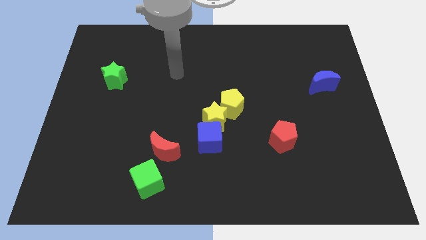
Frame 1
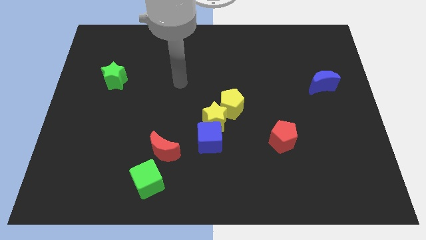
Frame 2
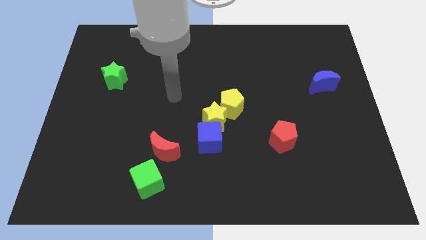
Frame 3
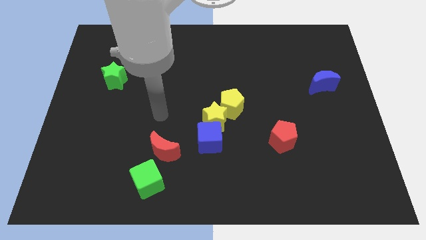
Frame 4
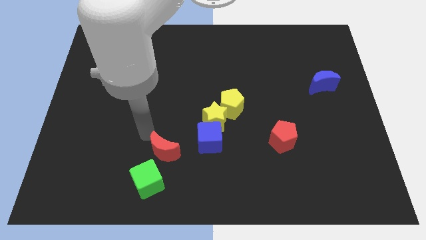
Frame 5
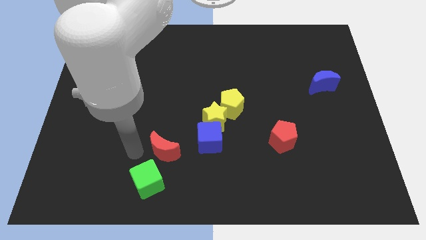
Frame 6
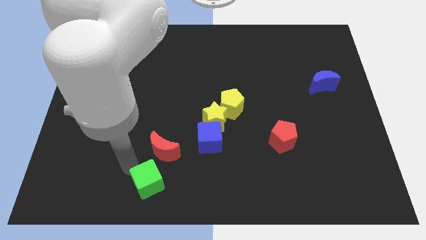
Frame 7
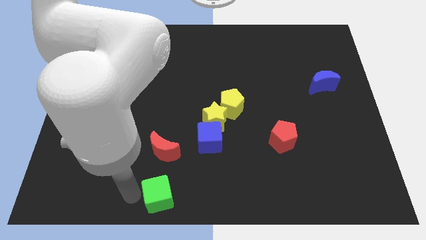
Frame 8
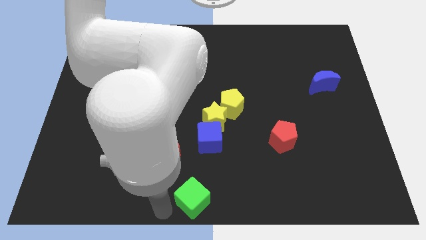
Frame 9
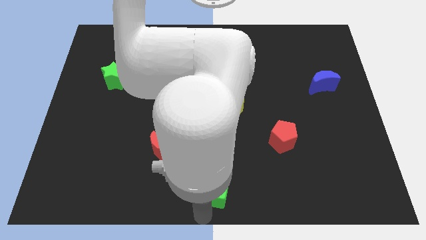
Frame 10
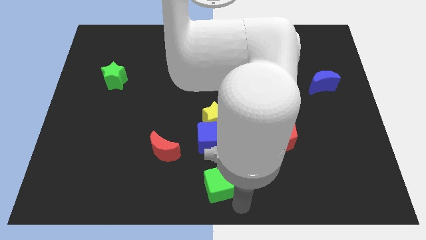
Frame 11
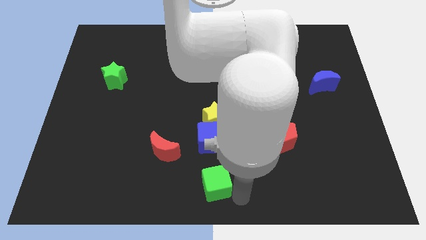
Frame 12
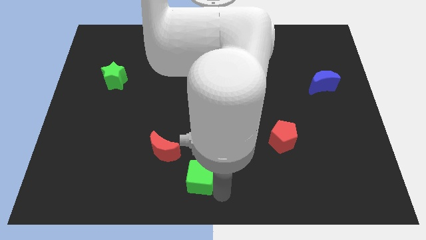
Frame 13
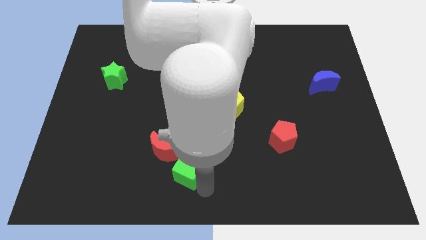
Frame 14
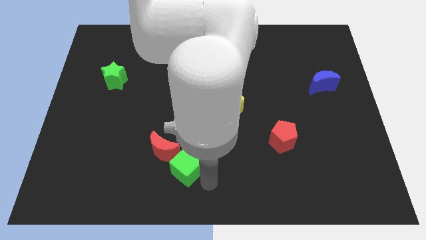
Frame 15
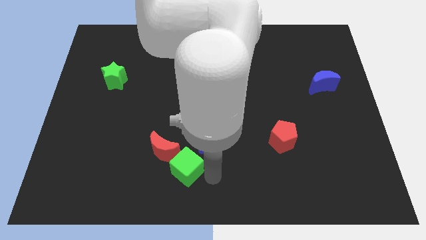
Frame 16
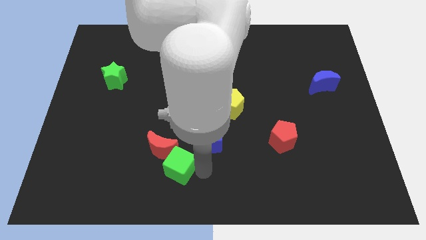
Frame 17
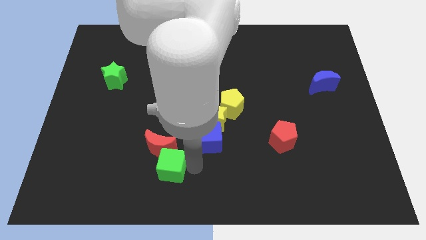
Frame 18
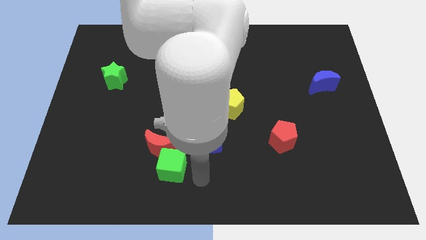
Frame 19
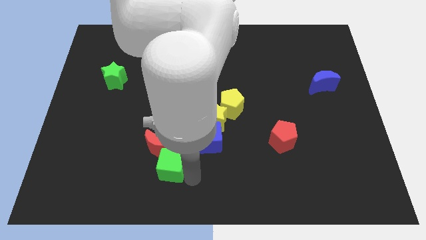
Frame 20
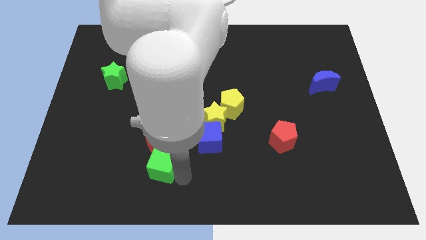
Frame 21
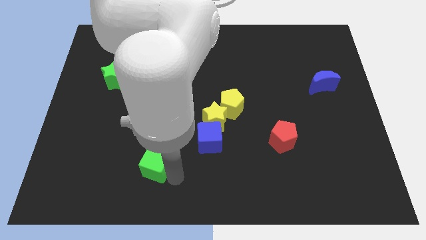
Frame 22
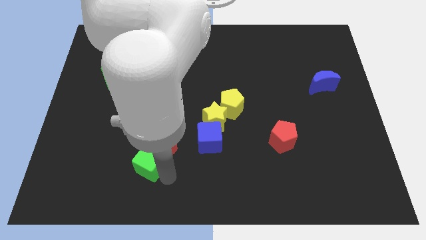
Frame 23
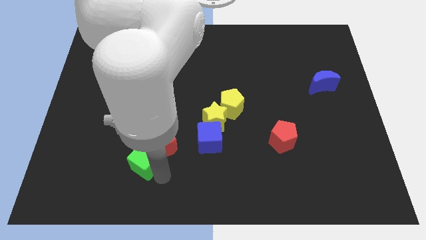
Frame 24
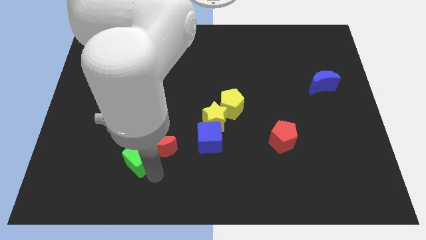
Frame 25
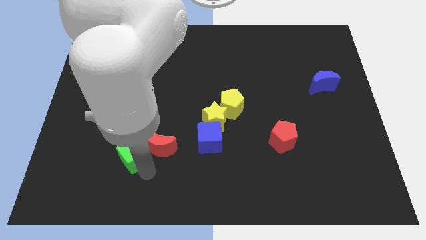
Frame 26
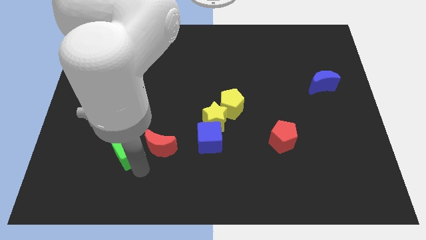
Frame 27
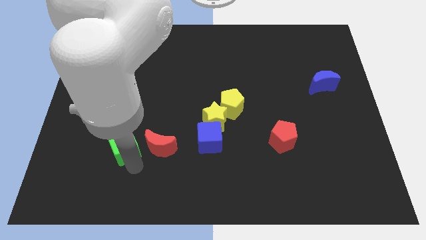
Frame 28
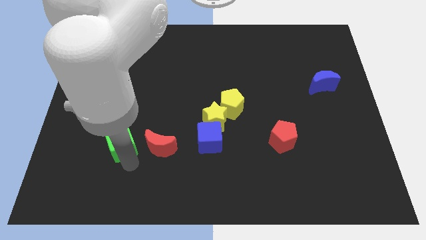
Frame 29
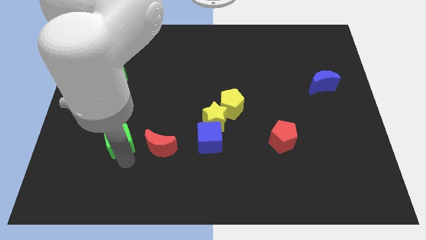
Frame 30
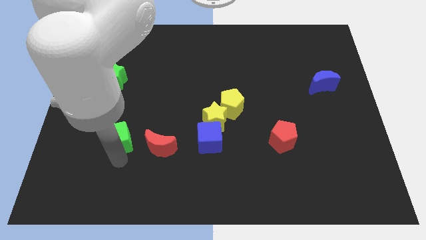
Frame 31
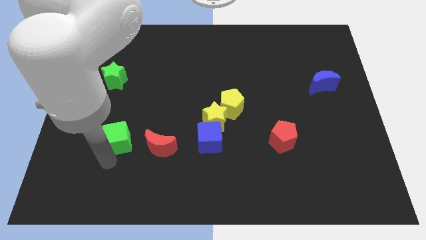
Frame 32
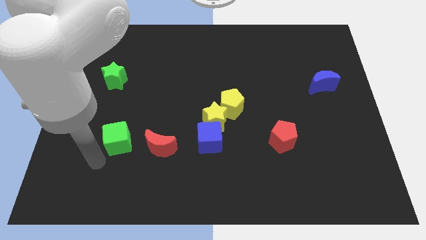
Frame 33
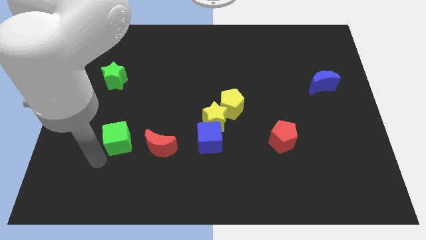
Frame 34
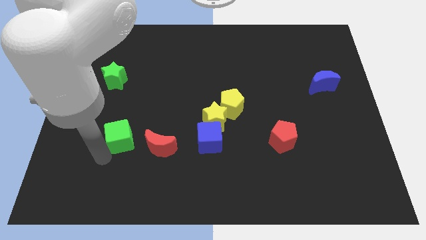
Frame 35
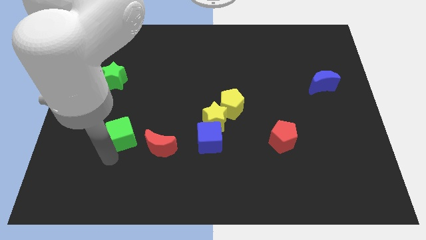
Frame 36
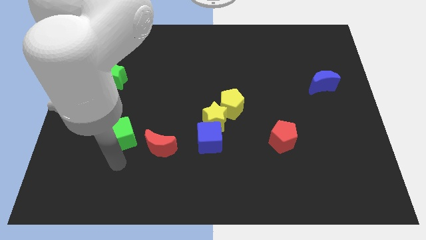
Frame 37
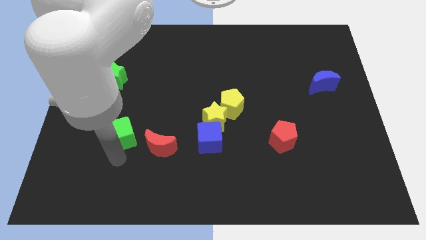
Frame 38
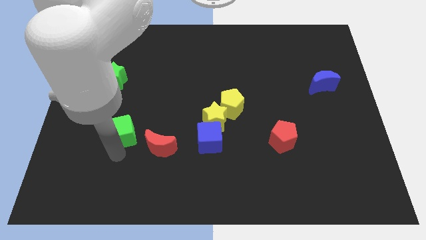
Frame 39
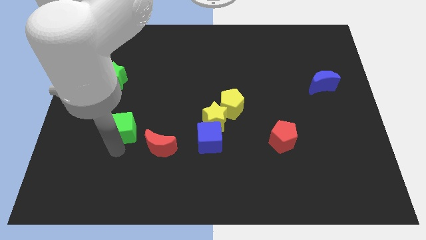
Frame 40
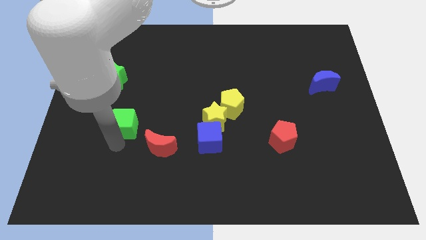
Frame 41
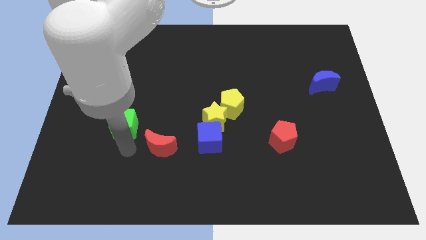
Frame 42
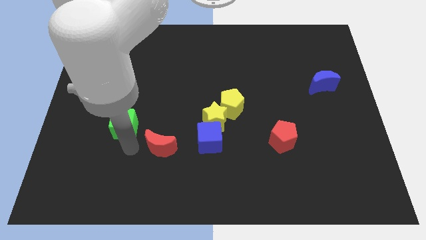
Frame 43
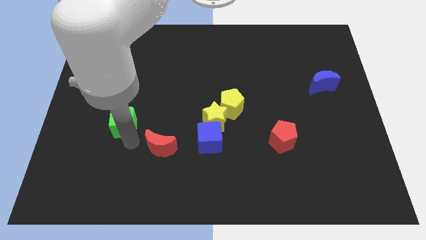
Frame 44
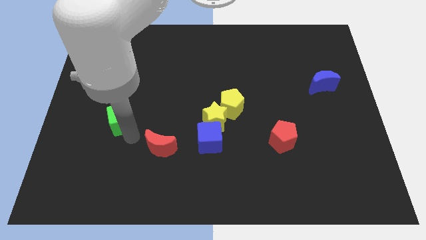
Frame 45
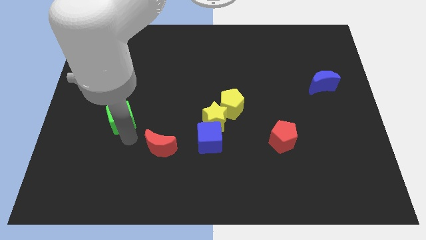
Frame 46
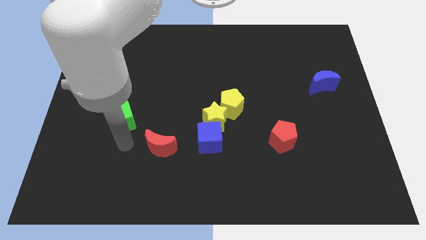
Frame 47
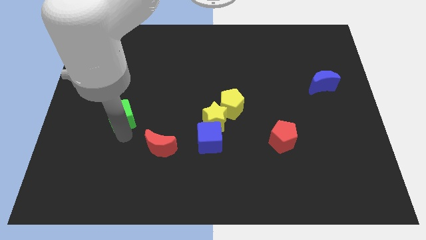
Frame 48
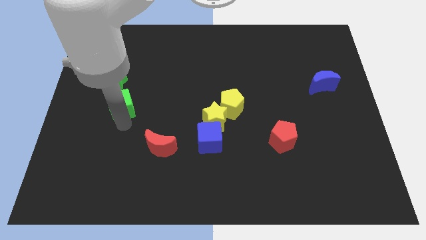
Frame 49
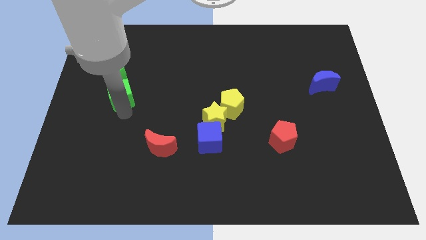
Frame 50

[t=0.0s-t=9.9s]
move the green cube next to the green star

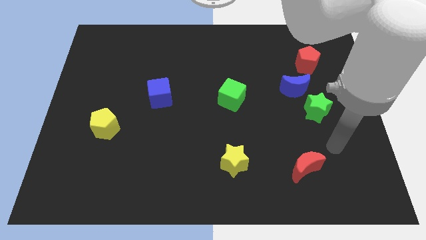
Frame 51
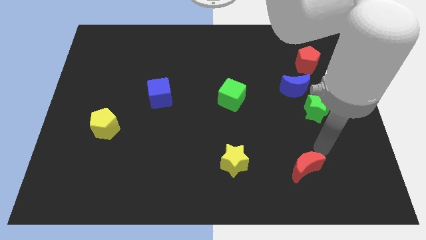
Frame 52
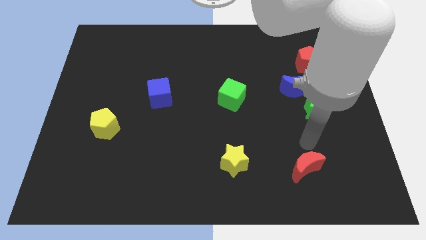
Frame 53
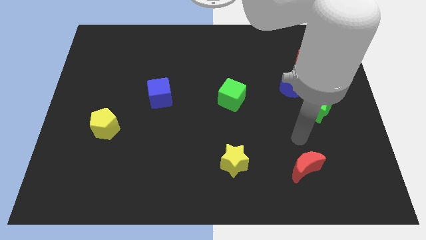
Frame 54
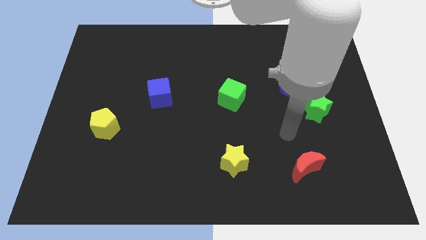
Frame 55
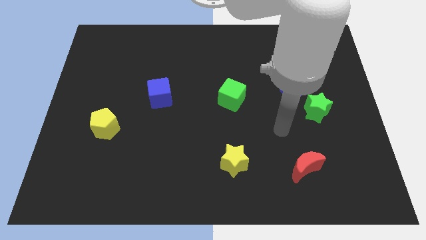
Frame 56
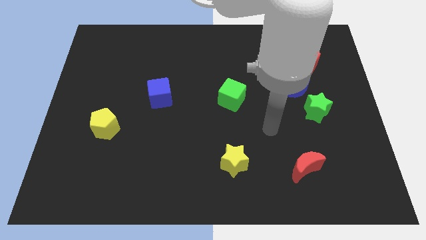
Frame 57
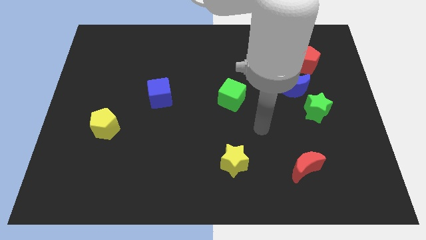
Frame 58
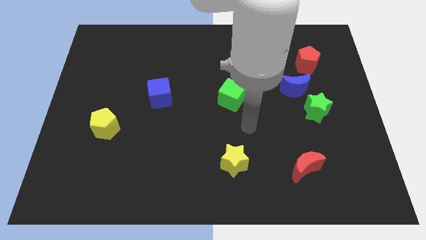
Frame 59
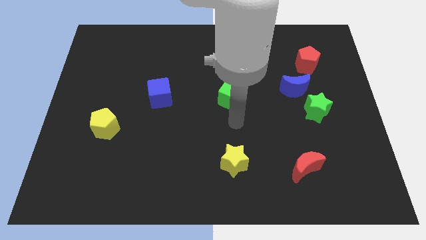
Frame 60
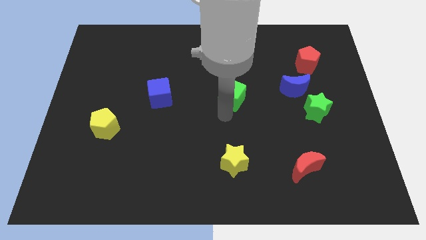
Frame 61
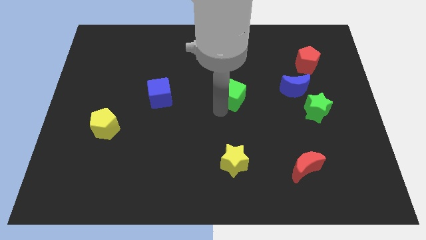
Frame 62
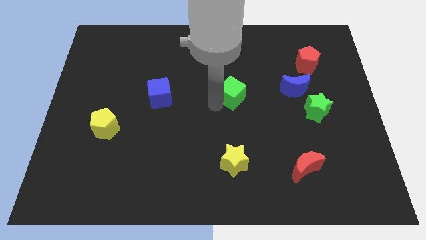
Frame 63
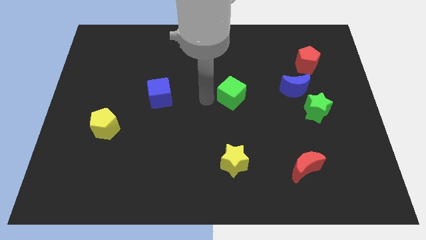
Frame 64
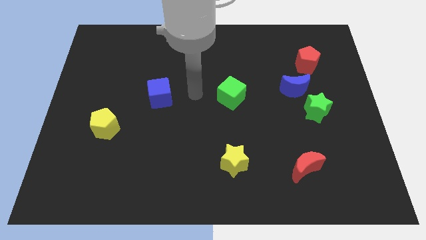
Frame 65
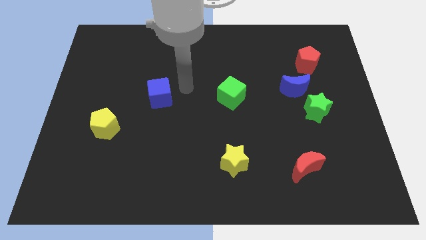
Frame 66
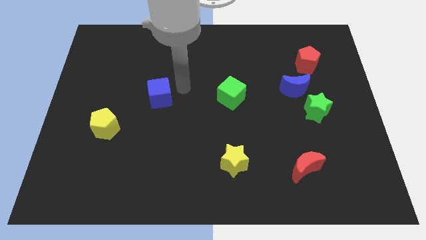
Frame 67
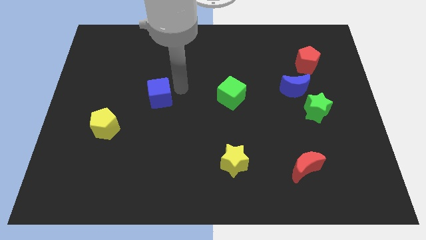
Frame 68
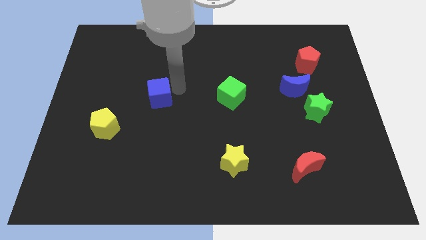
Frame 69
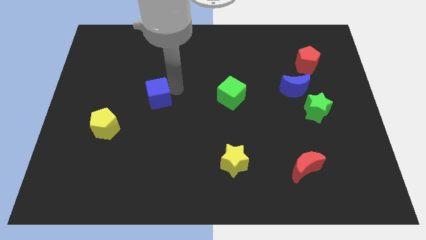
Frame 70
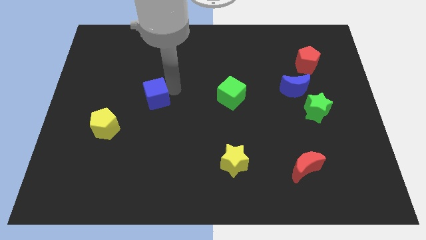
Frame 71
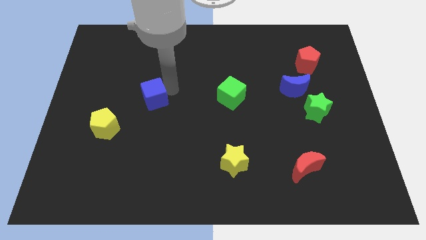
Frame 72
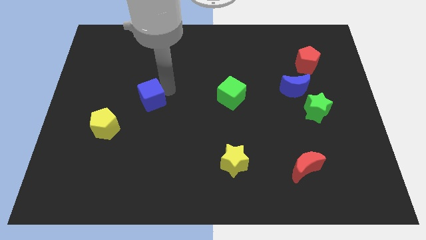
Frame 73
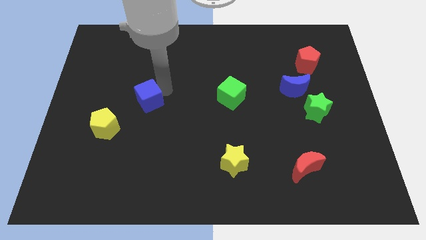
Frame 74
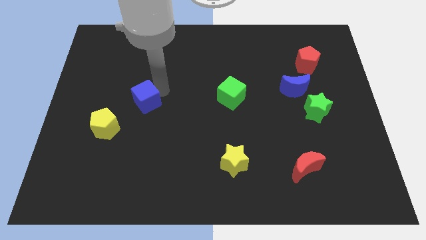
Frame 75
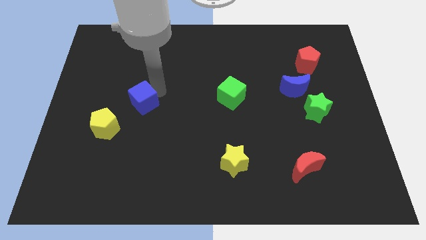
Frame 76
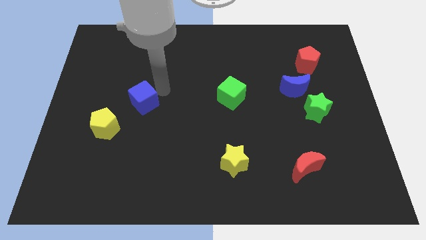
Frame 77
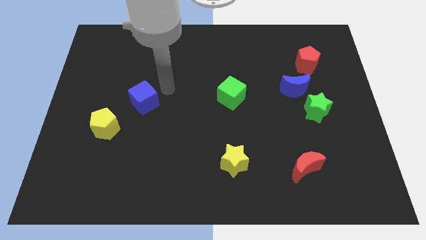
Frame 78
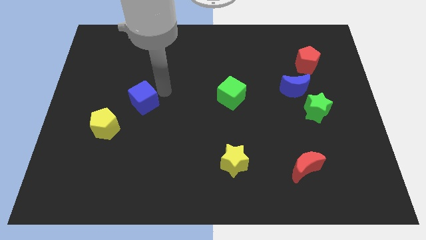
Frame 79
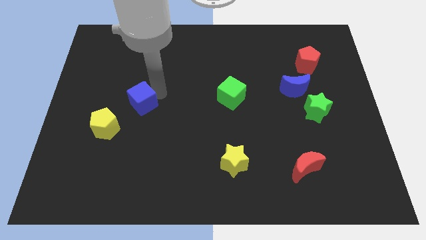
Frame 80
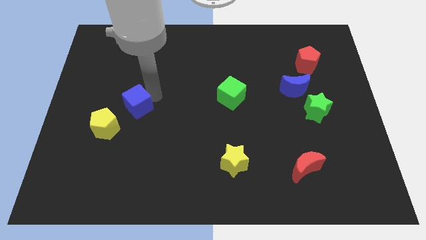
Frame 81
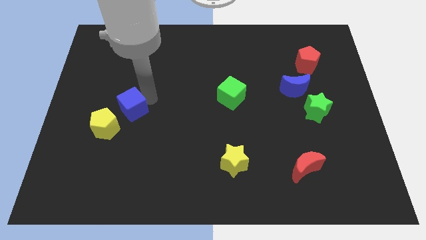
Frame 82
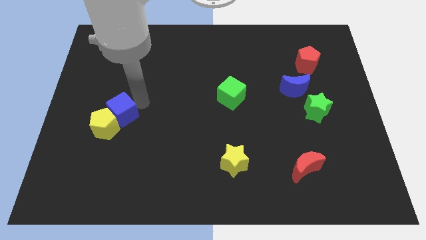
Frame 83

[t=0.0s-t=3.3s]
put the blue cube to the yellow pentagon
